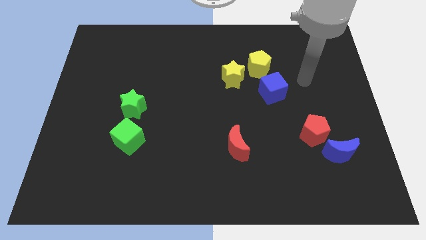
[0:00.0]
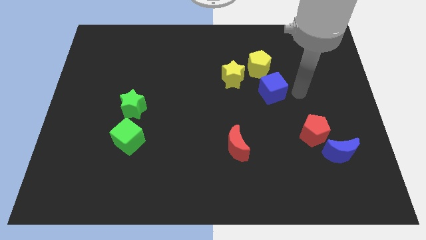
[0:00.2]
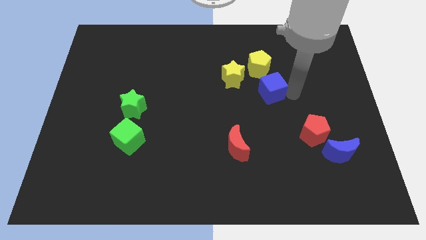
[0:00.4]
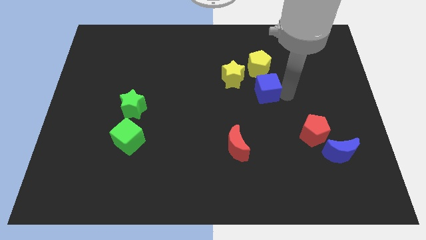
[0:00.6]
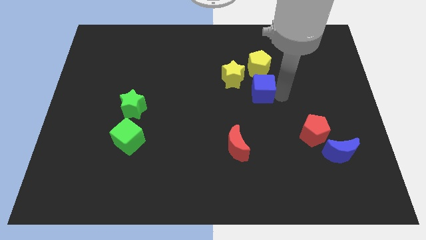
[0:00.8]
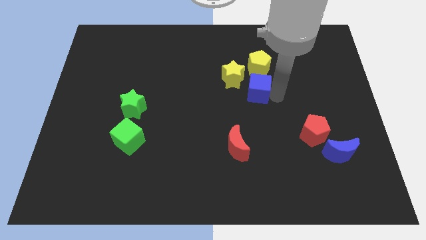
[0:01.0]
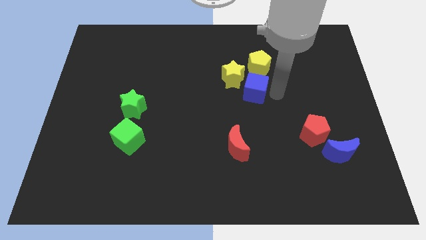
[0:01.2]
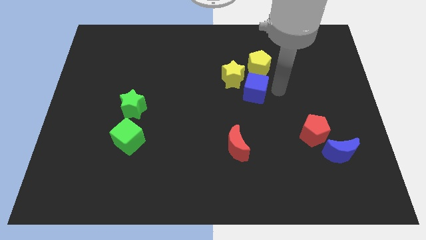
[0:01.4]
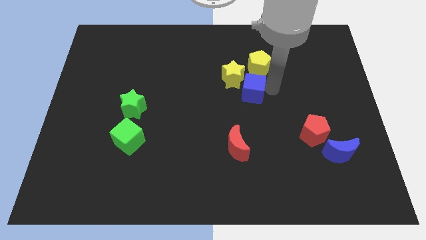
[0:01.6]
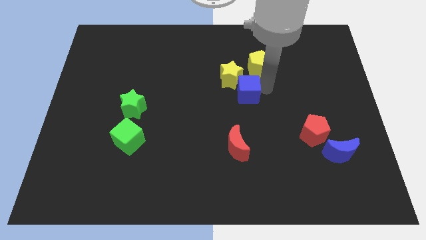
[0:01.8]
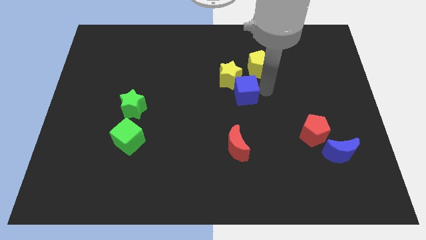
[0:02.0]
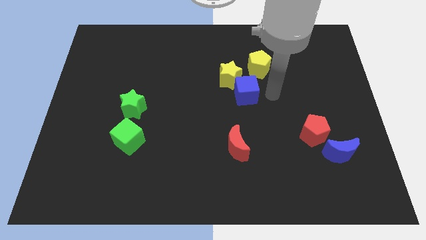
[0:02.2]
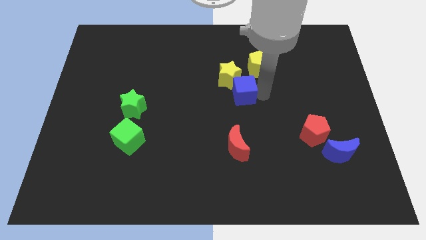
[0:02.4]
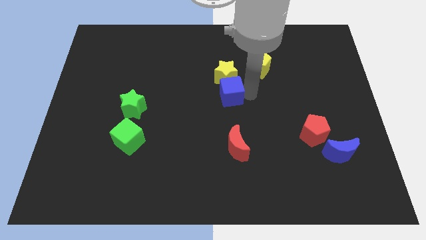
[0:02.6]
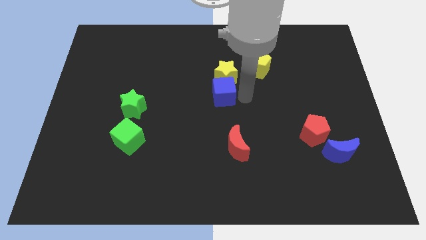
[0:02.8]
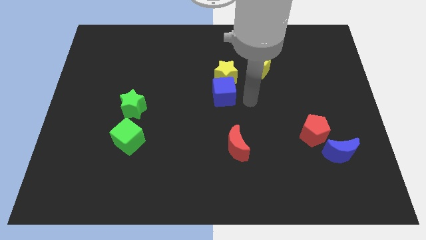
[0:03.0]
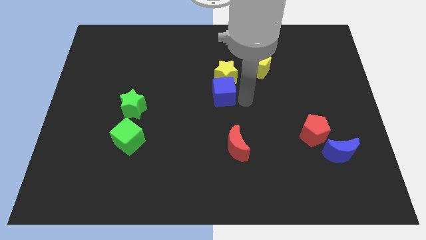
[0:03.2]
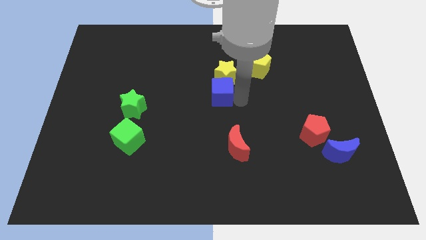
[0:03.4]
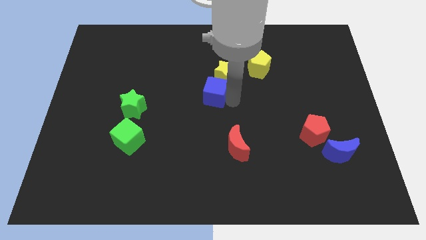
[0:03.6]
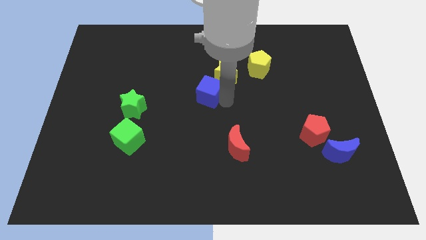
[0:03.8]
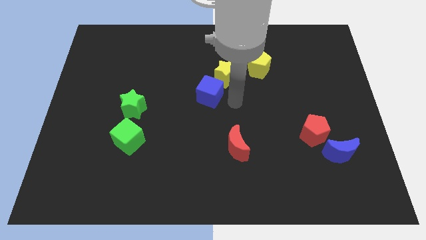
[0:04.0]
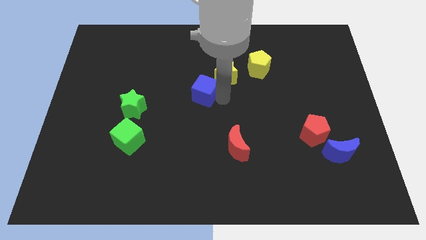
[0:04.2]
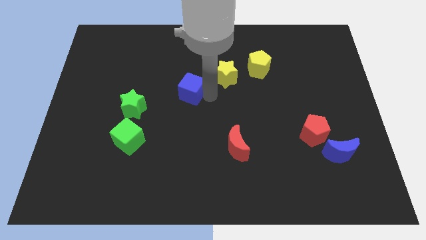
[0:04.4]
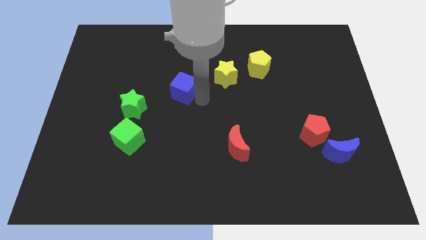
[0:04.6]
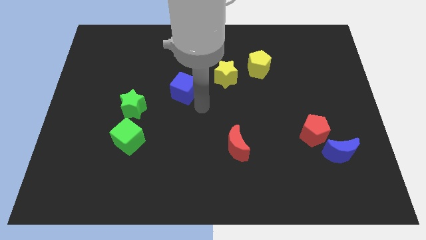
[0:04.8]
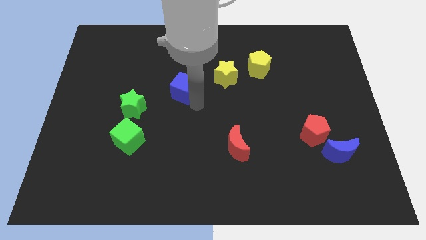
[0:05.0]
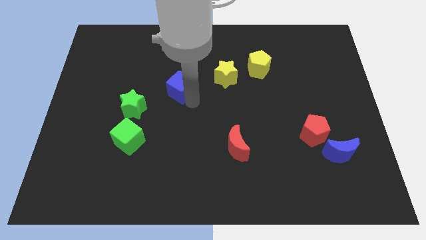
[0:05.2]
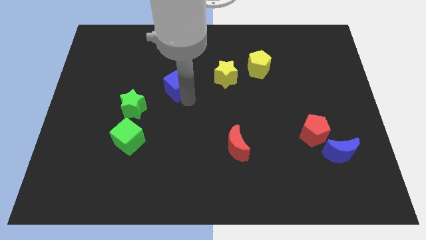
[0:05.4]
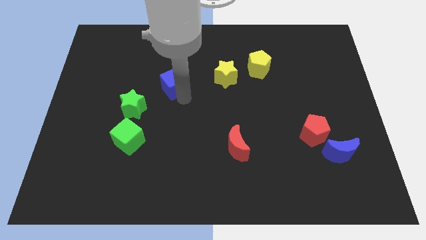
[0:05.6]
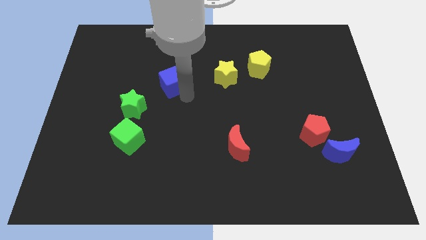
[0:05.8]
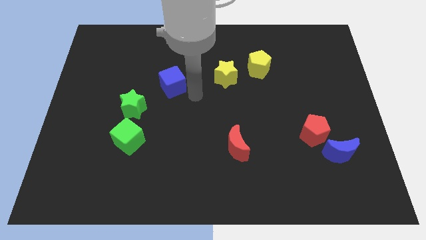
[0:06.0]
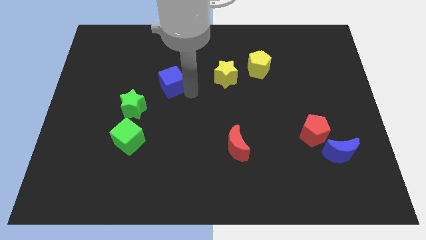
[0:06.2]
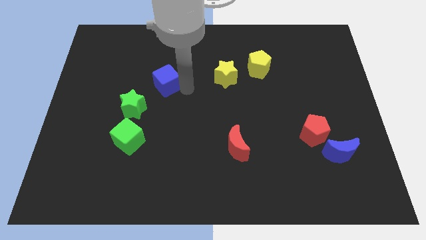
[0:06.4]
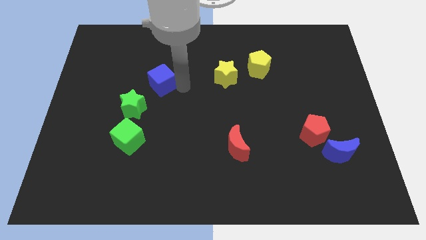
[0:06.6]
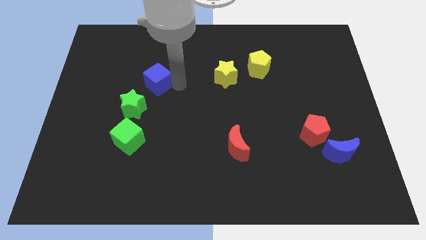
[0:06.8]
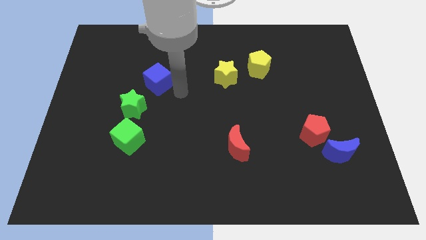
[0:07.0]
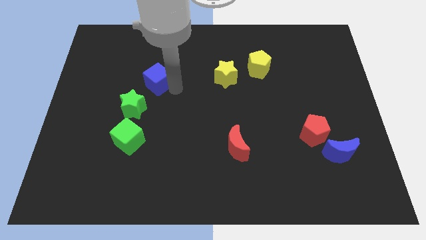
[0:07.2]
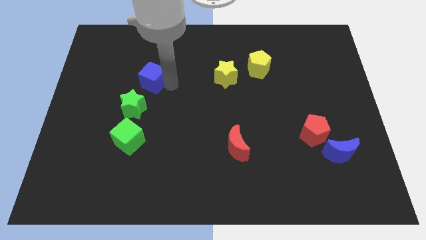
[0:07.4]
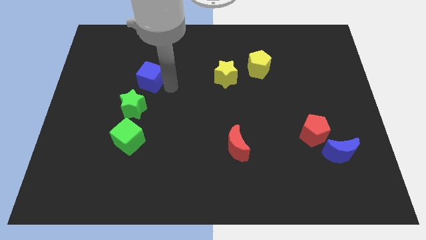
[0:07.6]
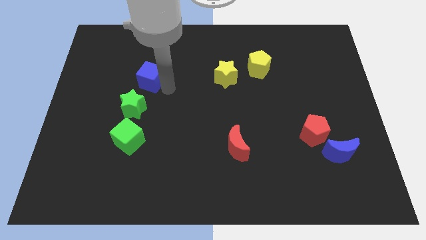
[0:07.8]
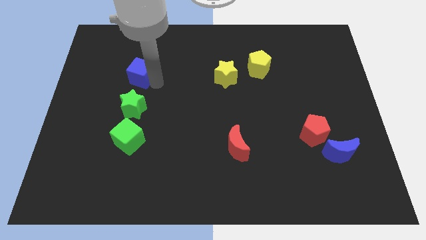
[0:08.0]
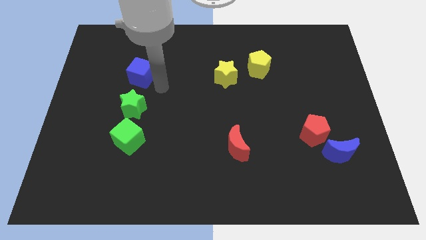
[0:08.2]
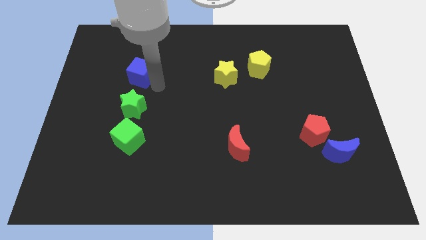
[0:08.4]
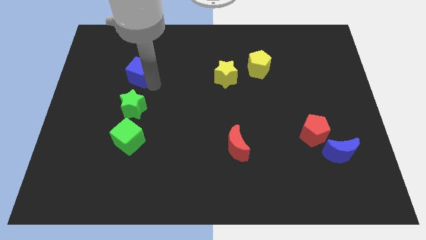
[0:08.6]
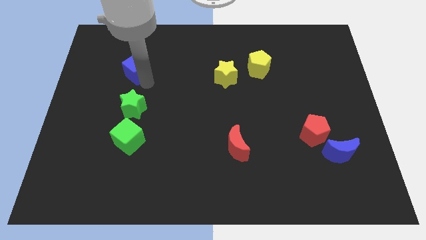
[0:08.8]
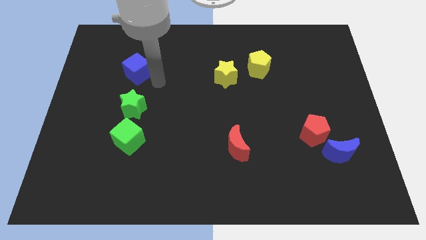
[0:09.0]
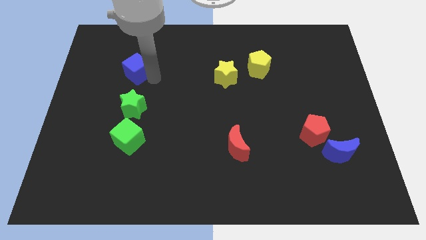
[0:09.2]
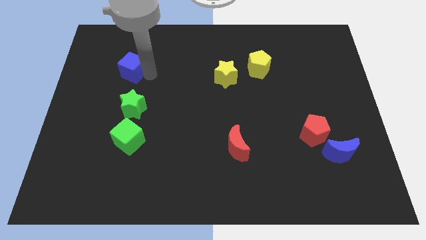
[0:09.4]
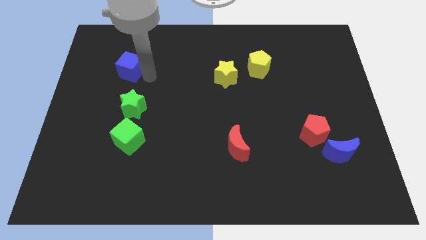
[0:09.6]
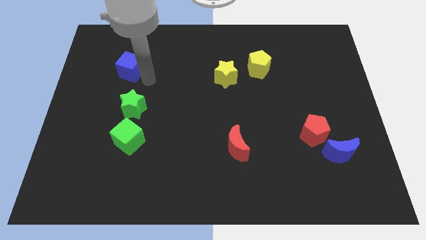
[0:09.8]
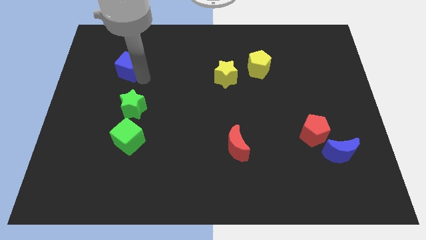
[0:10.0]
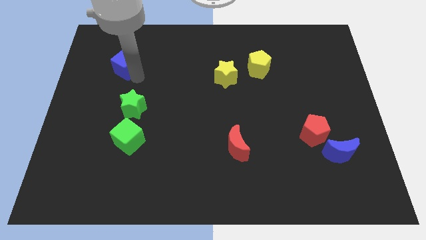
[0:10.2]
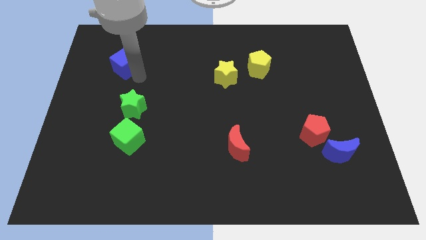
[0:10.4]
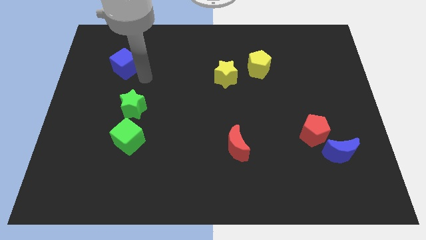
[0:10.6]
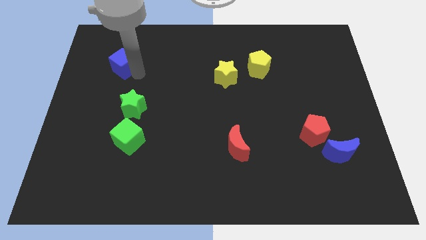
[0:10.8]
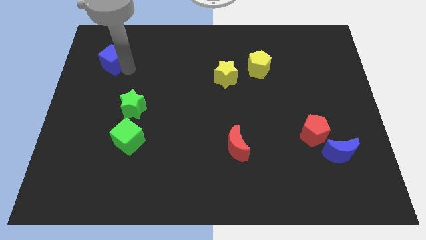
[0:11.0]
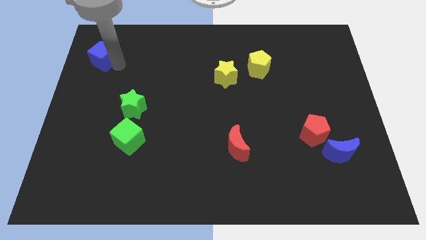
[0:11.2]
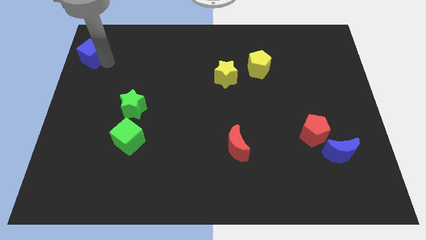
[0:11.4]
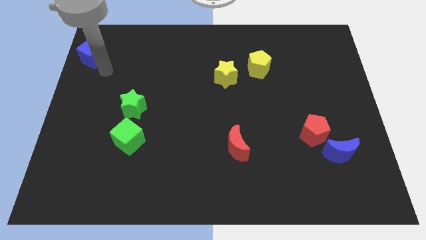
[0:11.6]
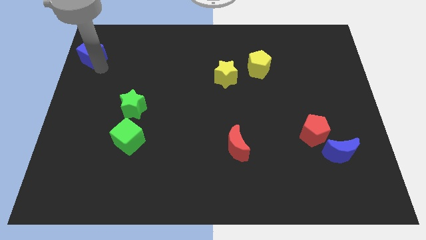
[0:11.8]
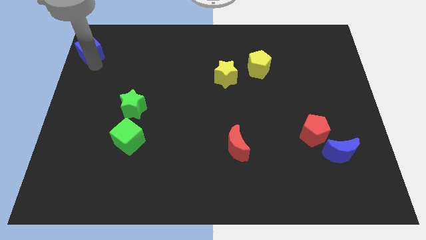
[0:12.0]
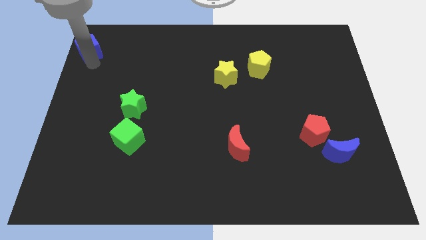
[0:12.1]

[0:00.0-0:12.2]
put the blue cube to the top left

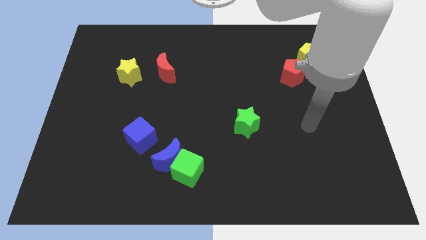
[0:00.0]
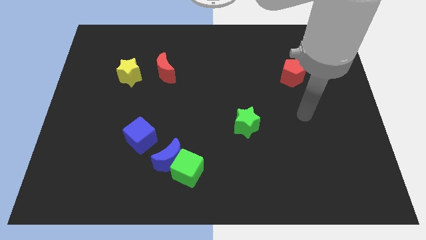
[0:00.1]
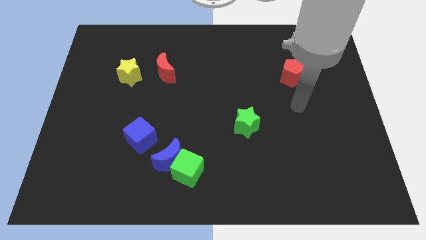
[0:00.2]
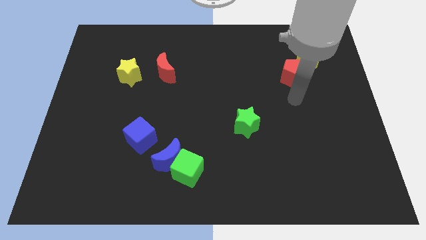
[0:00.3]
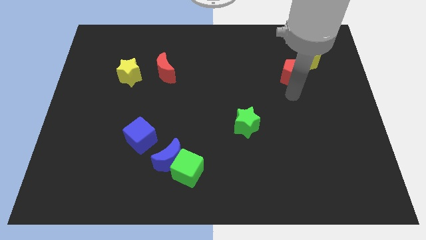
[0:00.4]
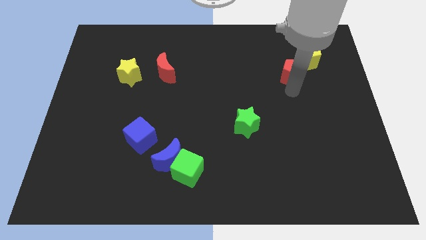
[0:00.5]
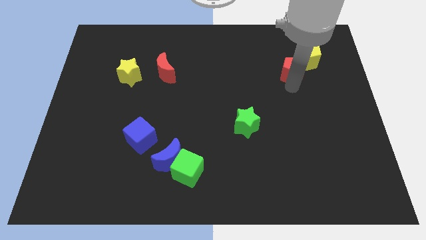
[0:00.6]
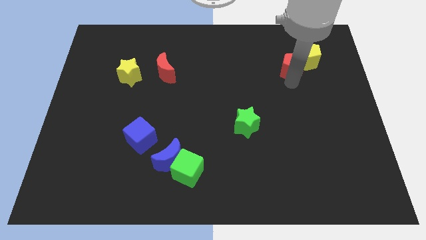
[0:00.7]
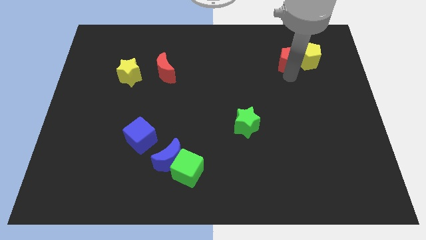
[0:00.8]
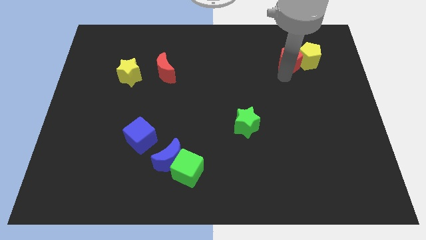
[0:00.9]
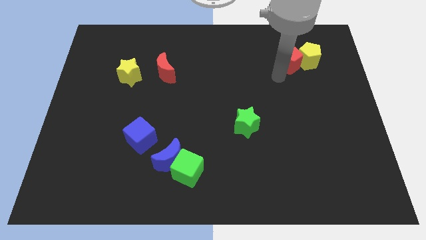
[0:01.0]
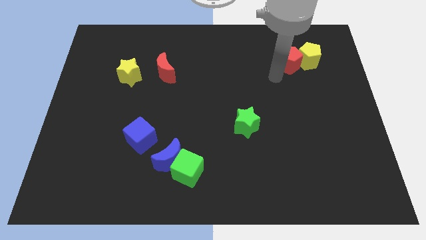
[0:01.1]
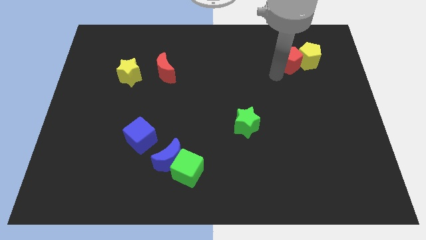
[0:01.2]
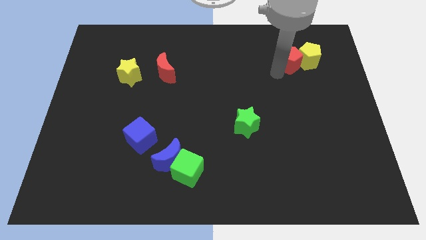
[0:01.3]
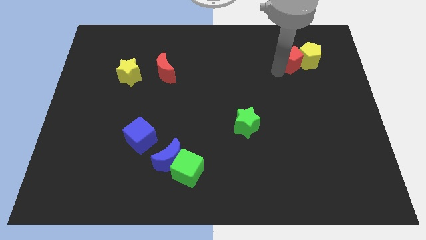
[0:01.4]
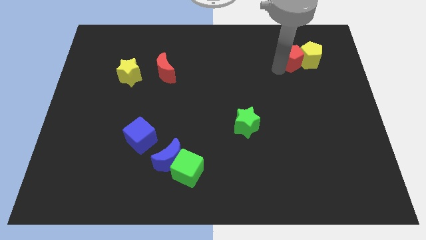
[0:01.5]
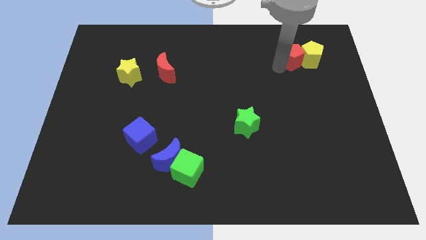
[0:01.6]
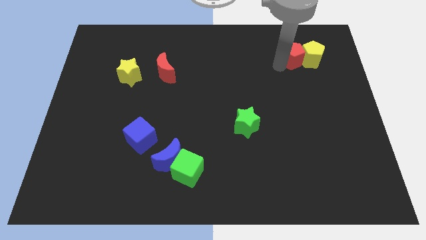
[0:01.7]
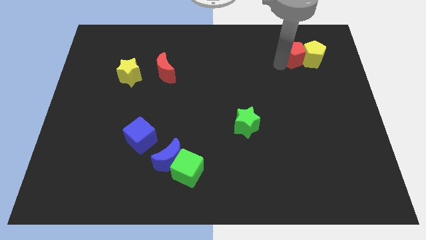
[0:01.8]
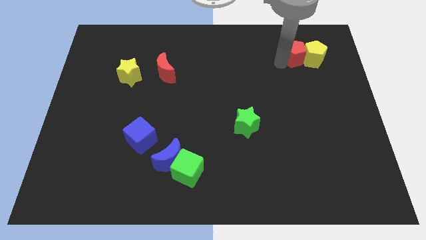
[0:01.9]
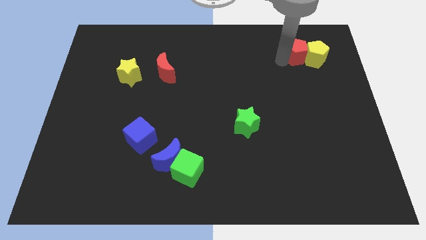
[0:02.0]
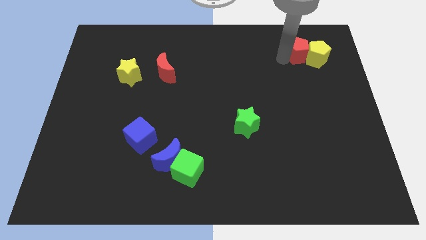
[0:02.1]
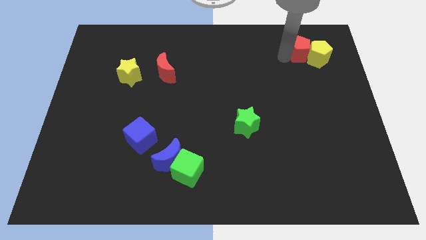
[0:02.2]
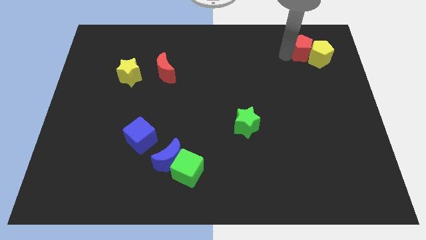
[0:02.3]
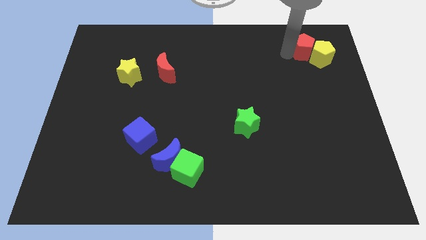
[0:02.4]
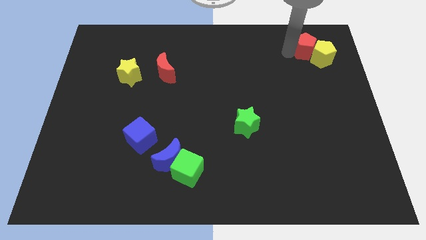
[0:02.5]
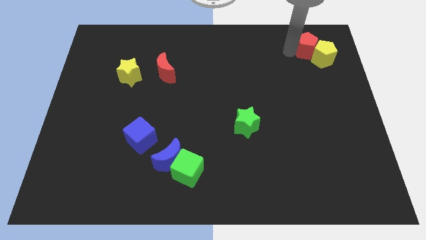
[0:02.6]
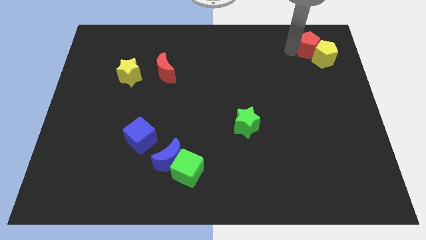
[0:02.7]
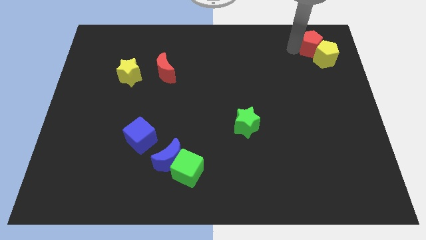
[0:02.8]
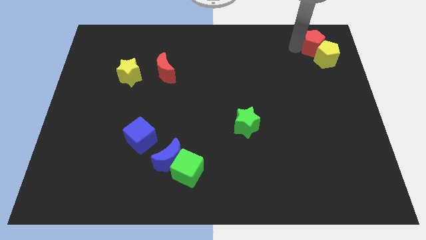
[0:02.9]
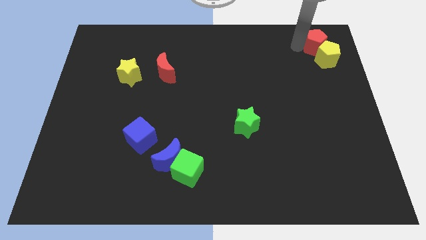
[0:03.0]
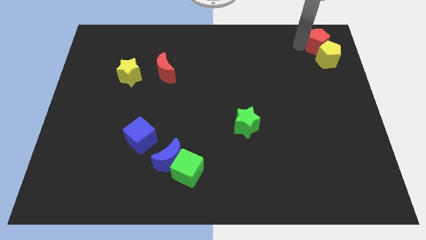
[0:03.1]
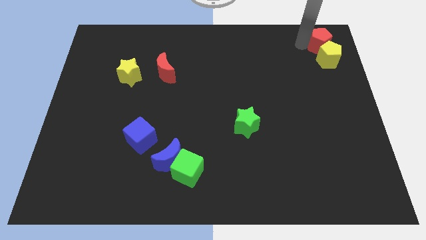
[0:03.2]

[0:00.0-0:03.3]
move the red pentagon to the top right of the board
